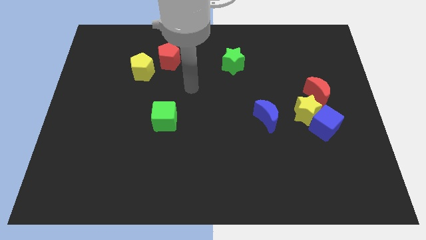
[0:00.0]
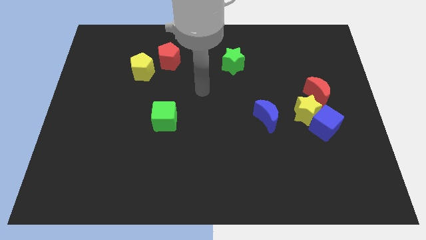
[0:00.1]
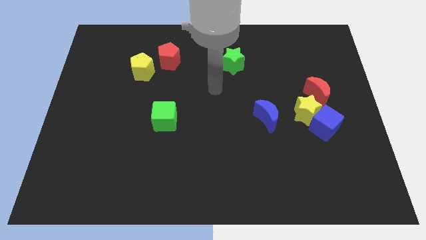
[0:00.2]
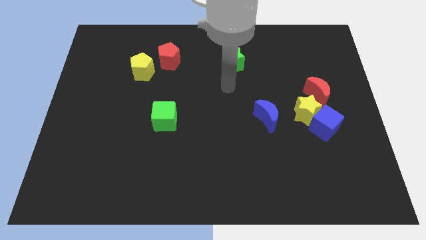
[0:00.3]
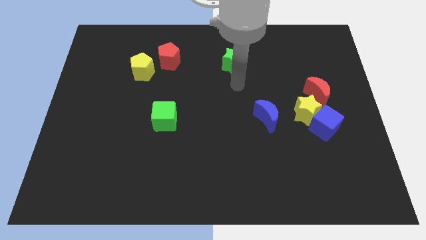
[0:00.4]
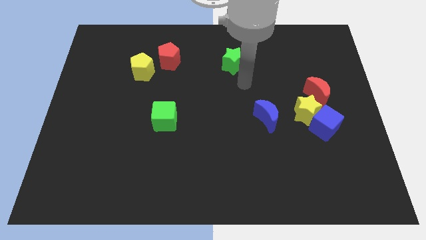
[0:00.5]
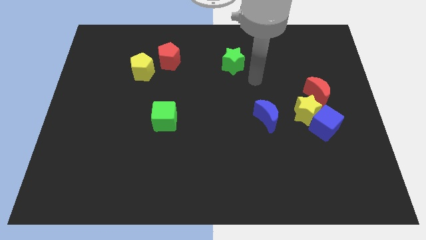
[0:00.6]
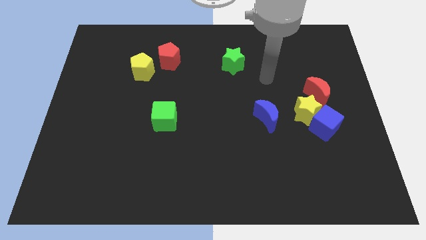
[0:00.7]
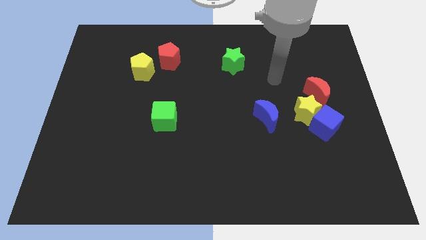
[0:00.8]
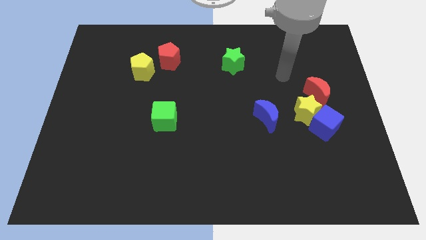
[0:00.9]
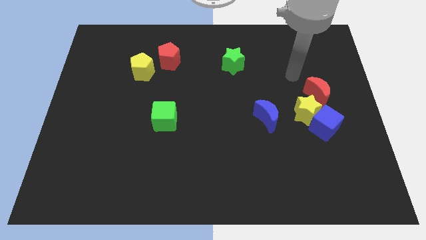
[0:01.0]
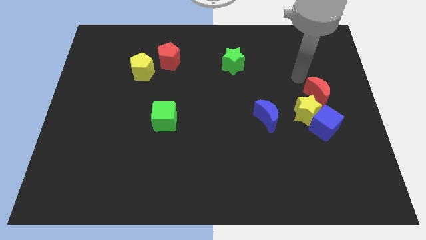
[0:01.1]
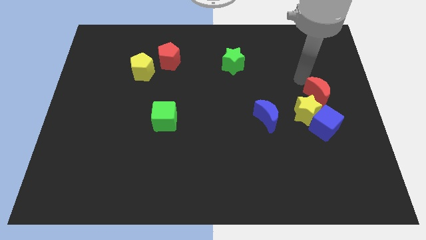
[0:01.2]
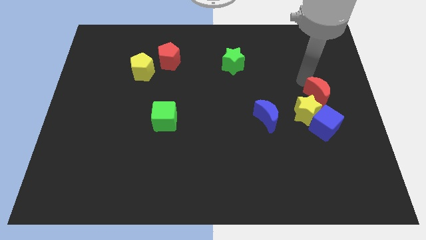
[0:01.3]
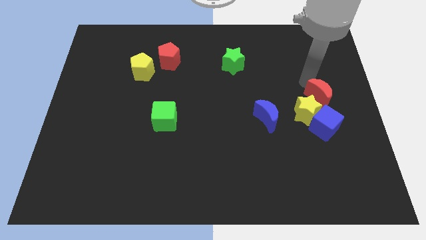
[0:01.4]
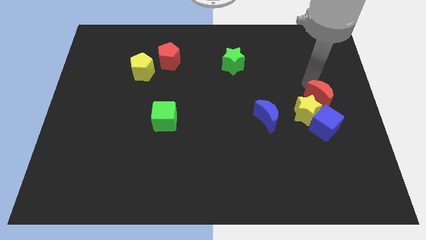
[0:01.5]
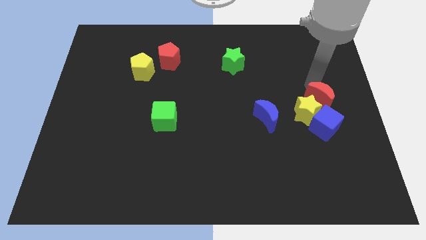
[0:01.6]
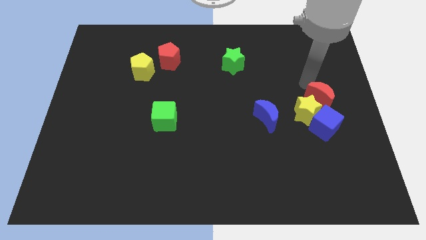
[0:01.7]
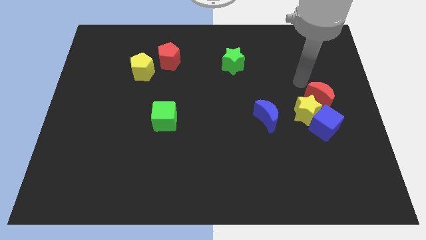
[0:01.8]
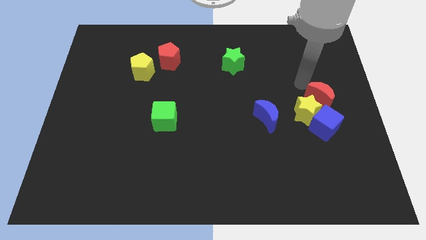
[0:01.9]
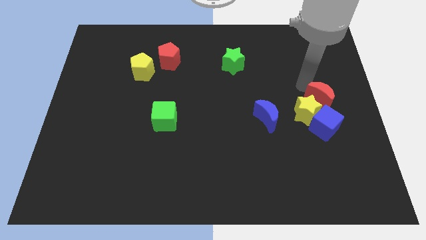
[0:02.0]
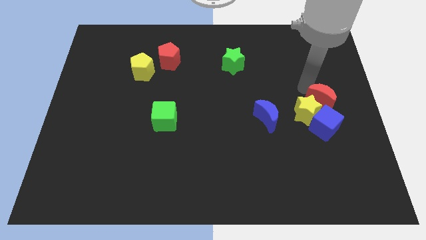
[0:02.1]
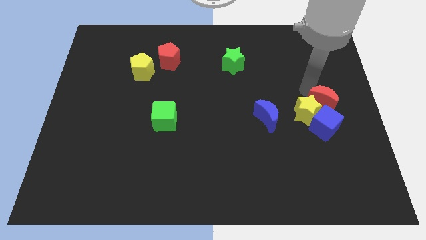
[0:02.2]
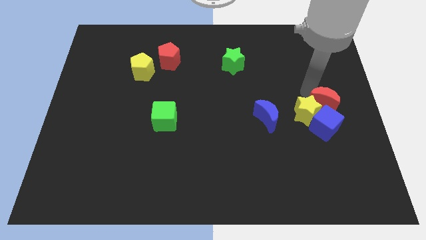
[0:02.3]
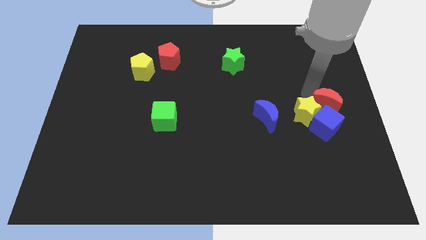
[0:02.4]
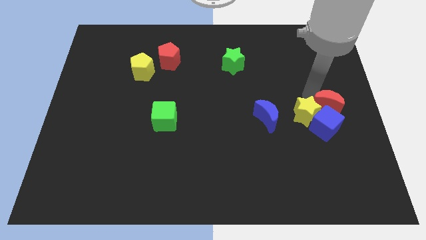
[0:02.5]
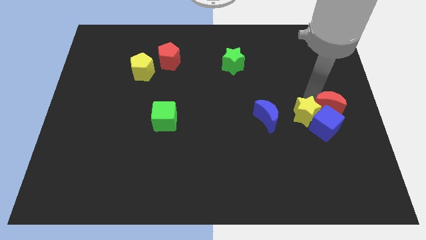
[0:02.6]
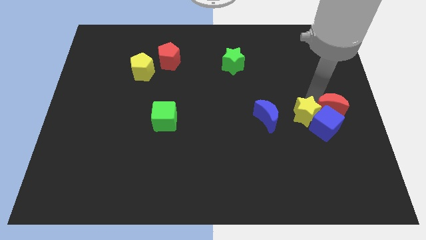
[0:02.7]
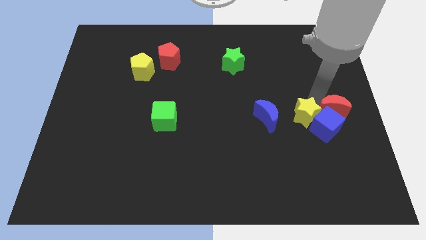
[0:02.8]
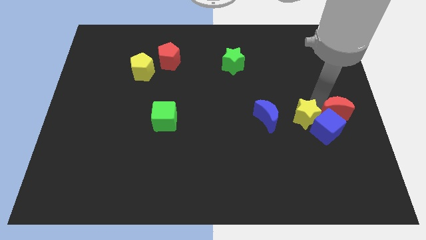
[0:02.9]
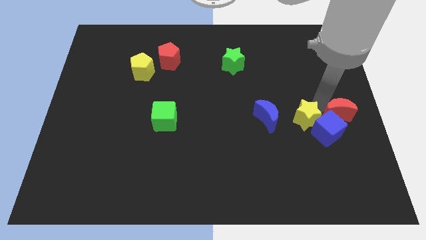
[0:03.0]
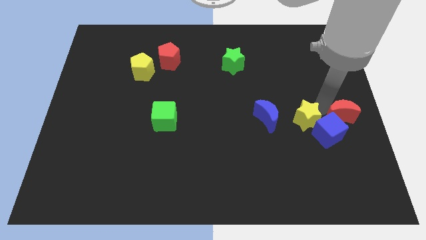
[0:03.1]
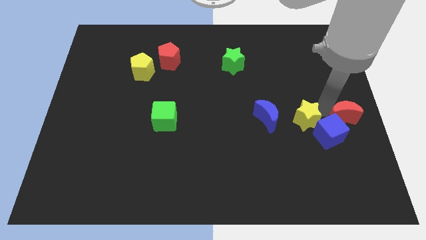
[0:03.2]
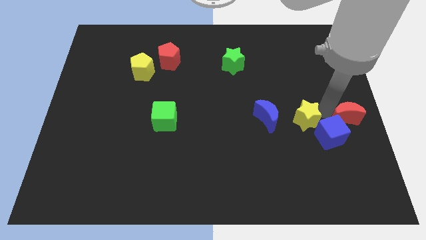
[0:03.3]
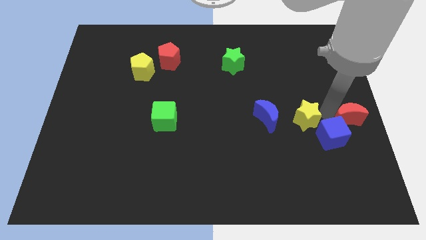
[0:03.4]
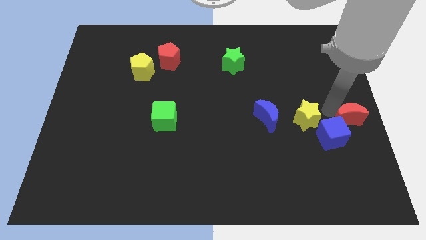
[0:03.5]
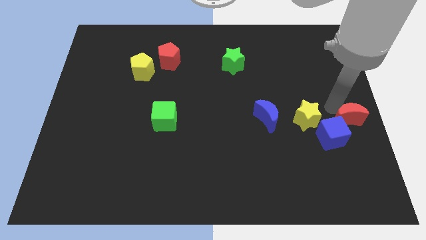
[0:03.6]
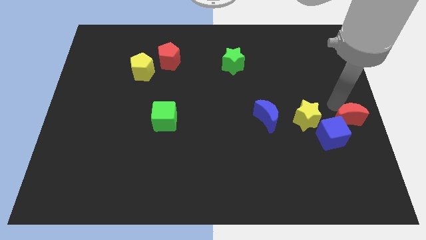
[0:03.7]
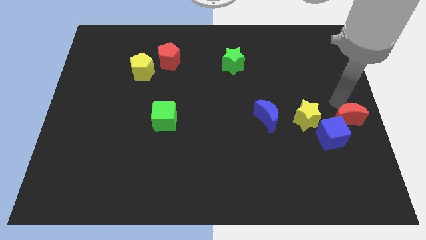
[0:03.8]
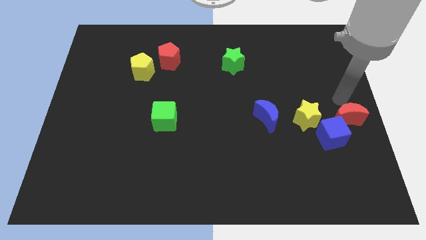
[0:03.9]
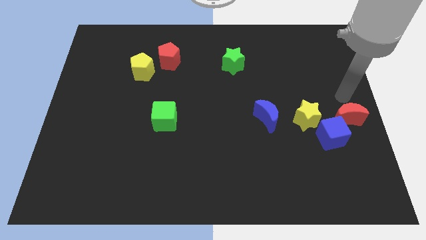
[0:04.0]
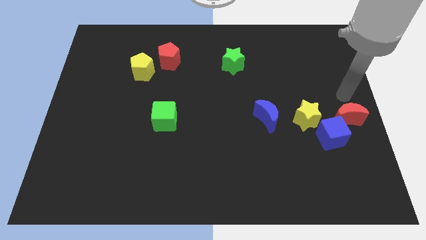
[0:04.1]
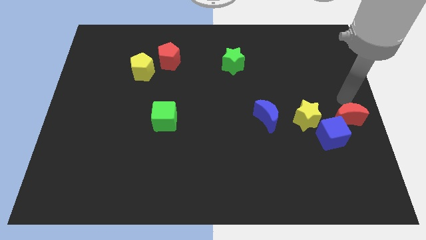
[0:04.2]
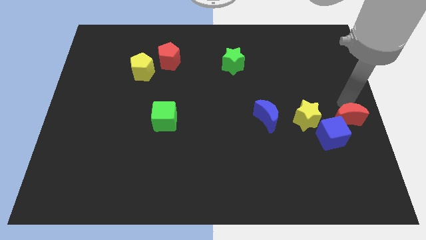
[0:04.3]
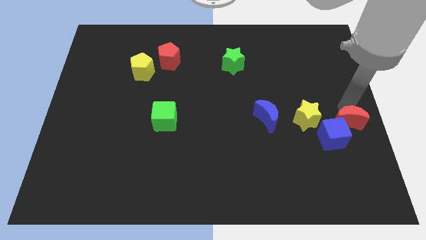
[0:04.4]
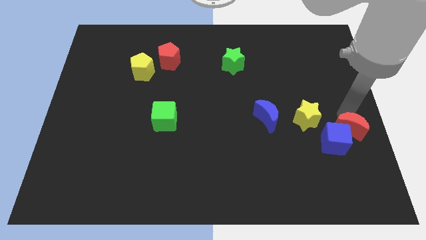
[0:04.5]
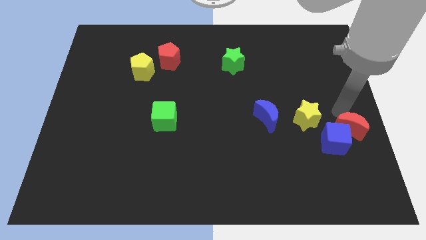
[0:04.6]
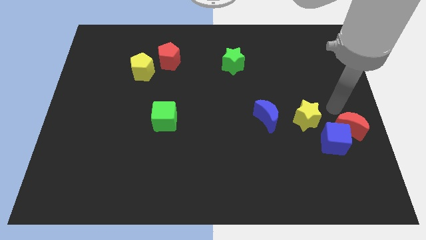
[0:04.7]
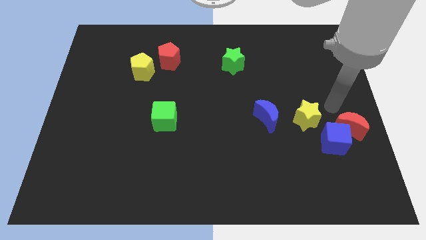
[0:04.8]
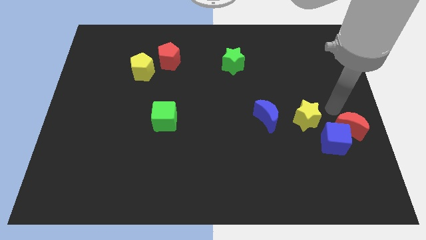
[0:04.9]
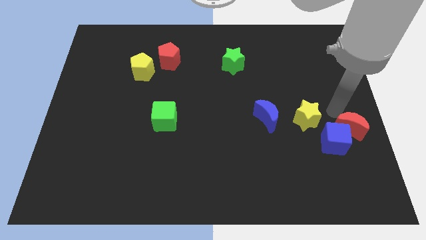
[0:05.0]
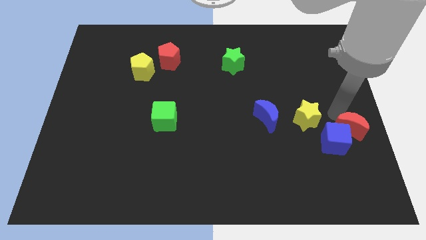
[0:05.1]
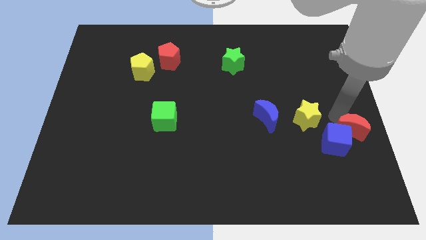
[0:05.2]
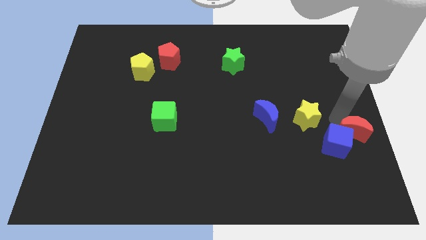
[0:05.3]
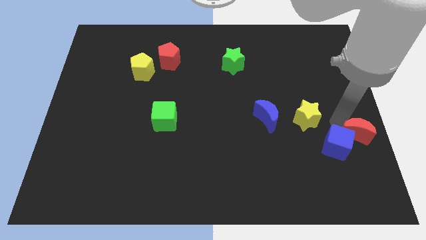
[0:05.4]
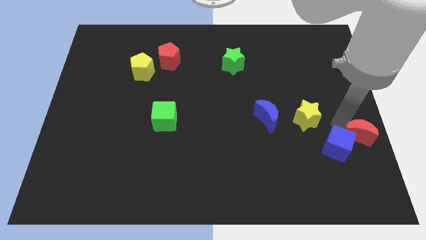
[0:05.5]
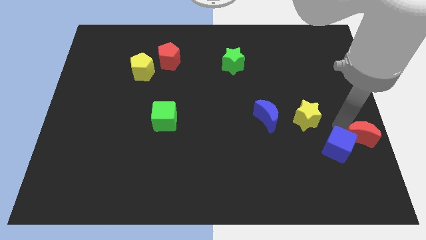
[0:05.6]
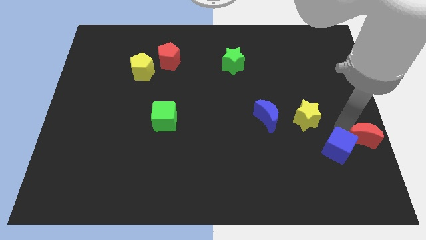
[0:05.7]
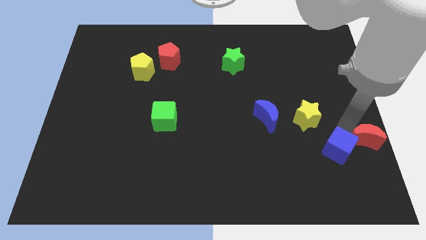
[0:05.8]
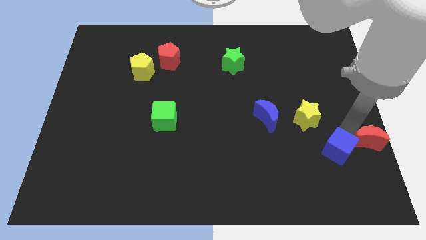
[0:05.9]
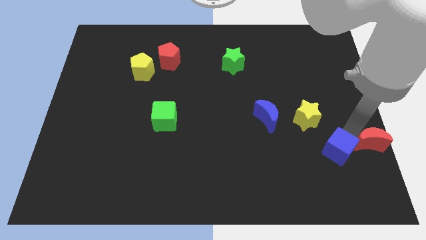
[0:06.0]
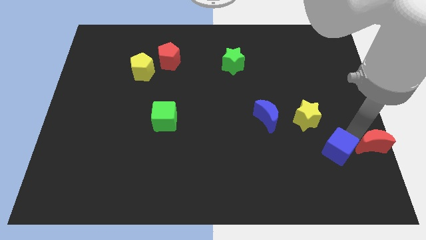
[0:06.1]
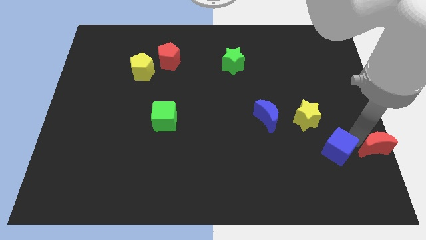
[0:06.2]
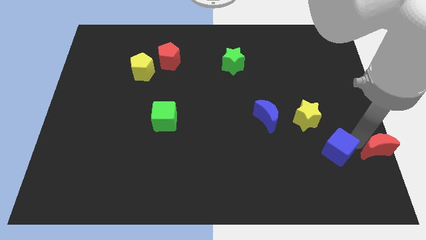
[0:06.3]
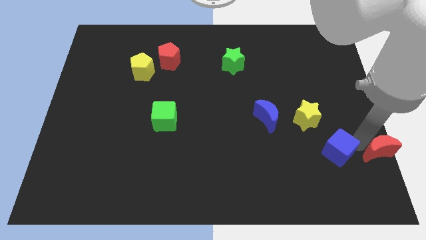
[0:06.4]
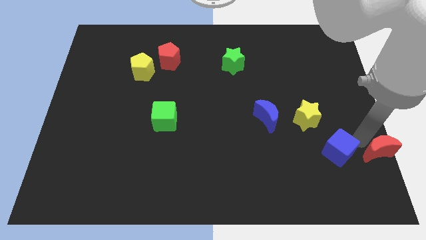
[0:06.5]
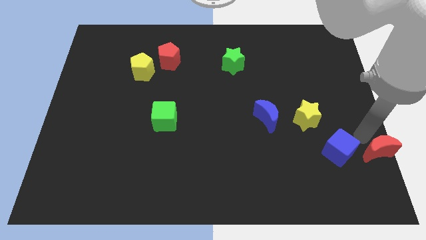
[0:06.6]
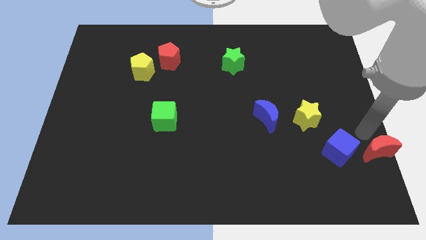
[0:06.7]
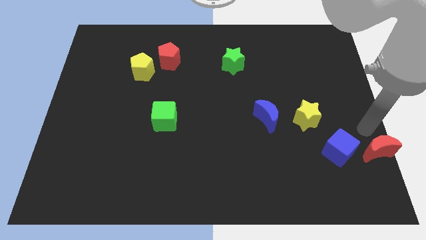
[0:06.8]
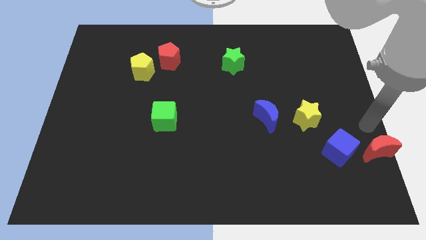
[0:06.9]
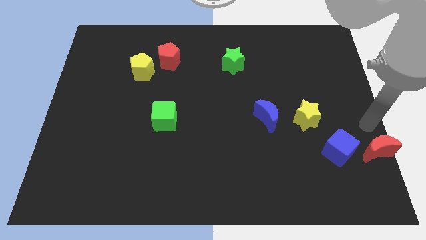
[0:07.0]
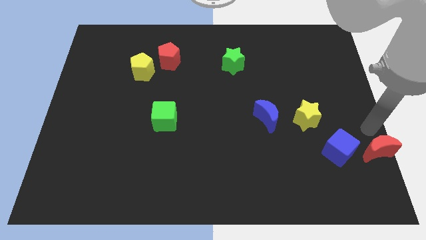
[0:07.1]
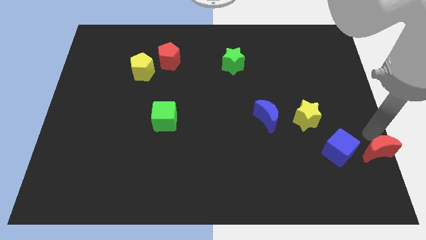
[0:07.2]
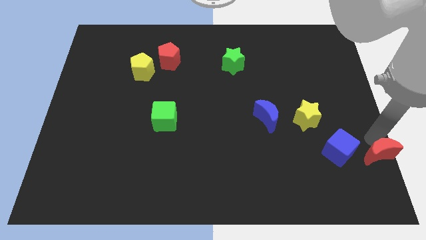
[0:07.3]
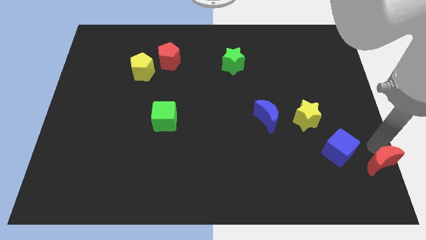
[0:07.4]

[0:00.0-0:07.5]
push the red moon to the bottom right of the board
